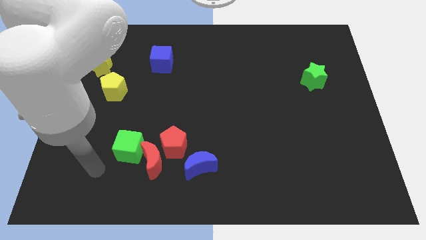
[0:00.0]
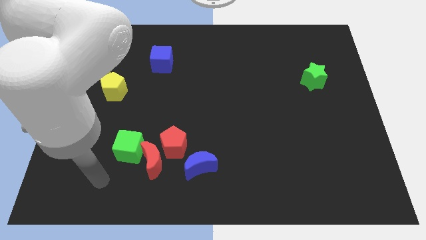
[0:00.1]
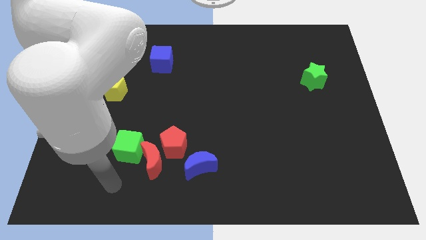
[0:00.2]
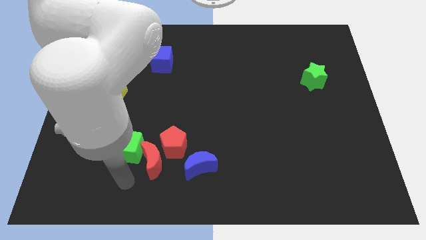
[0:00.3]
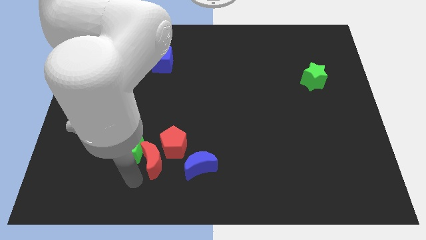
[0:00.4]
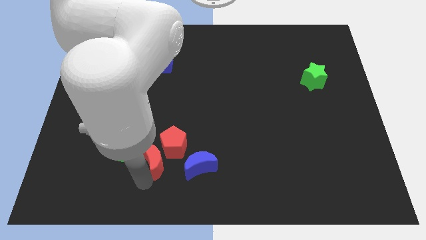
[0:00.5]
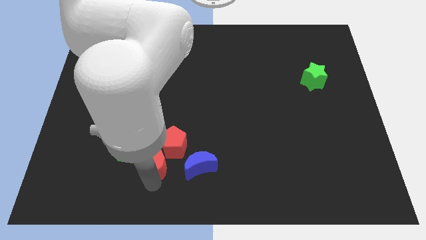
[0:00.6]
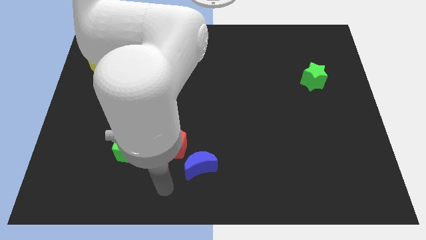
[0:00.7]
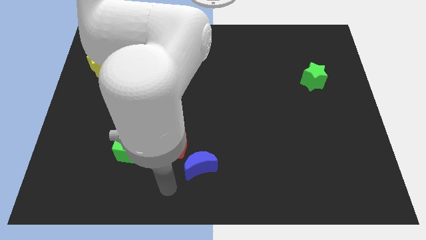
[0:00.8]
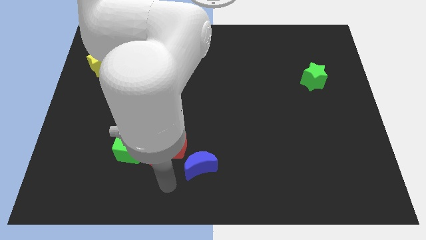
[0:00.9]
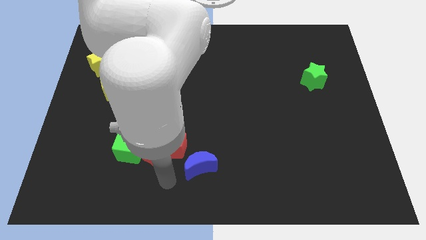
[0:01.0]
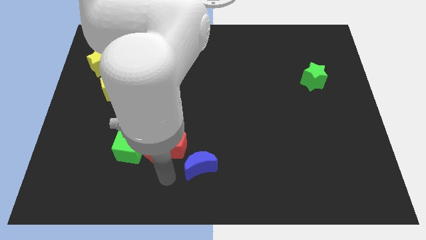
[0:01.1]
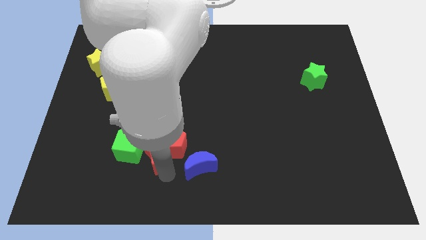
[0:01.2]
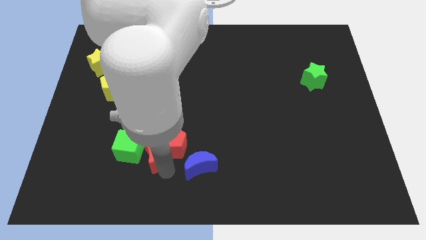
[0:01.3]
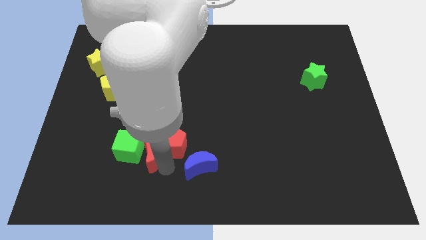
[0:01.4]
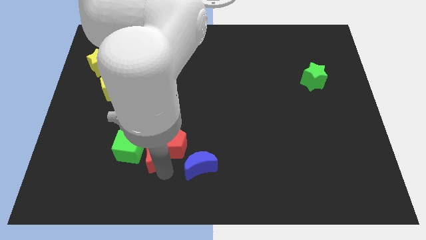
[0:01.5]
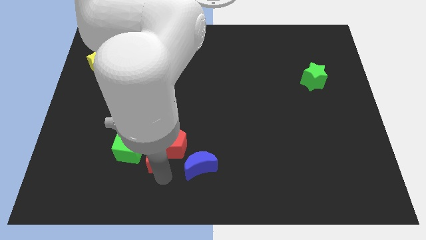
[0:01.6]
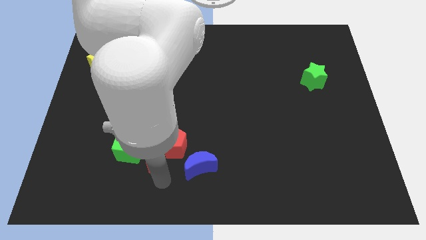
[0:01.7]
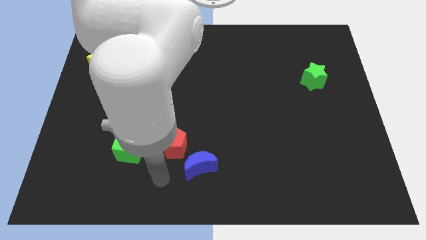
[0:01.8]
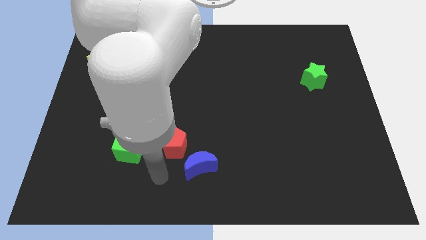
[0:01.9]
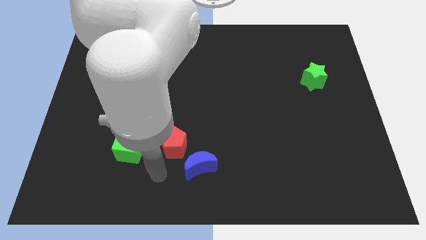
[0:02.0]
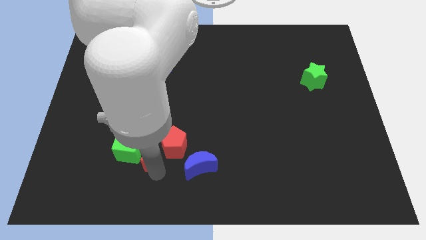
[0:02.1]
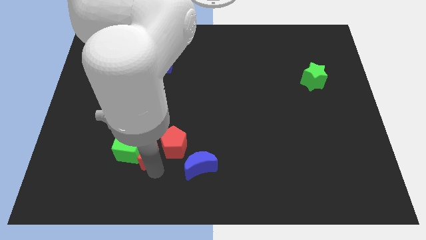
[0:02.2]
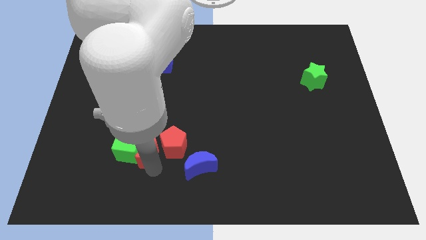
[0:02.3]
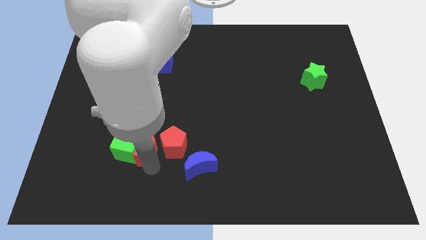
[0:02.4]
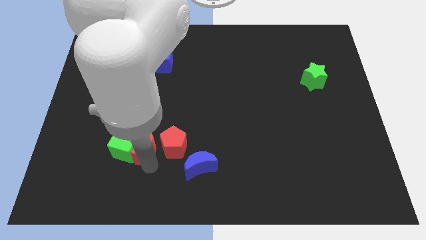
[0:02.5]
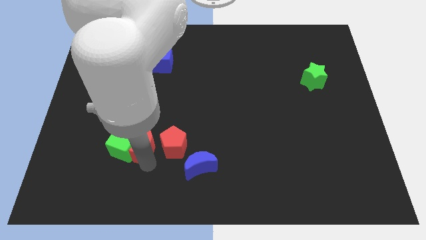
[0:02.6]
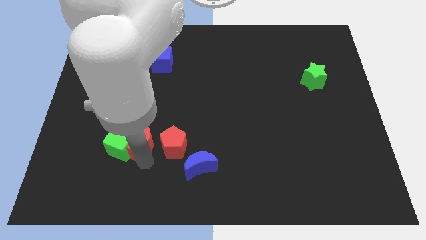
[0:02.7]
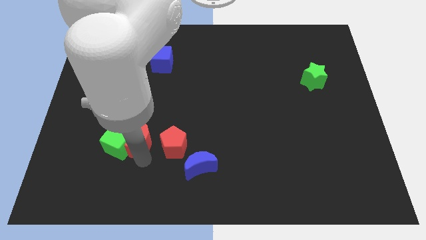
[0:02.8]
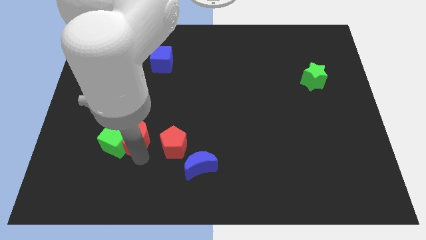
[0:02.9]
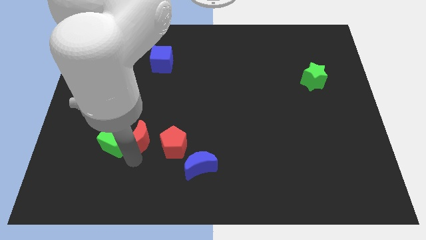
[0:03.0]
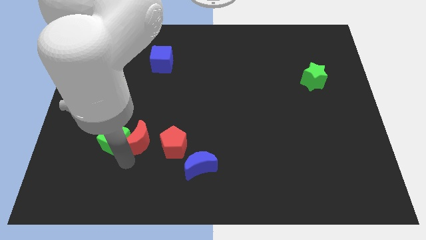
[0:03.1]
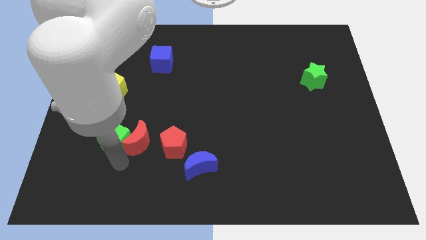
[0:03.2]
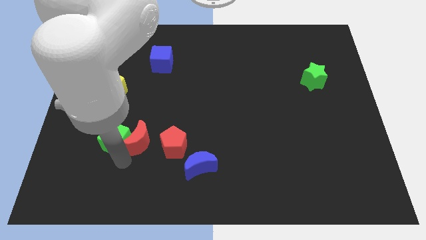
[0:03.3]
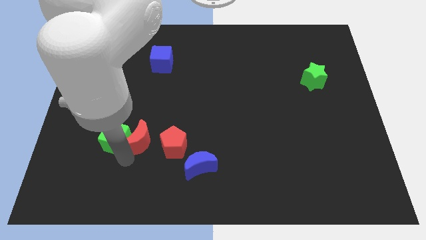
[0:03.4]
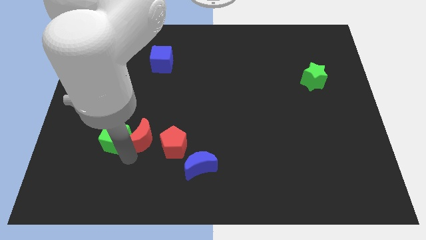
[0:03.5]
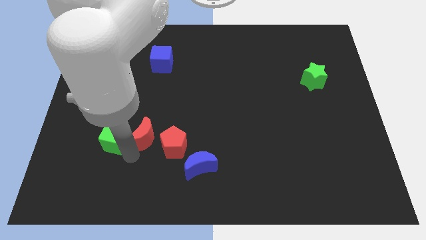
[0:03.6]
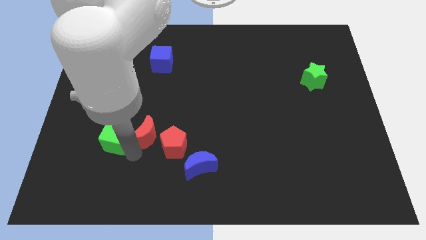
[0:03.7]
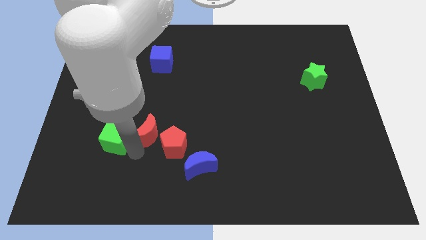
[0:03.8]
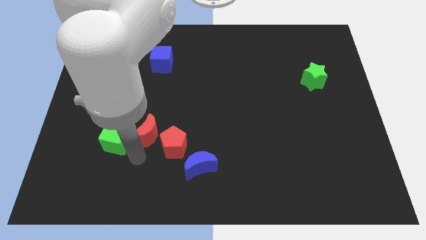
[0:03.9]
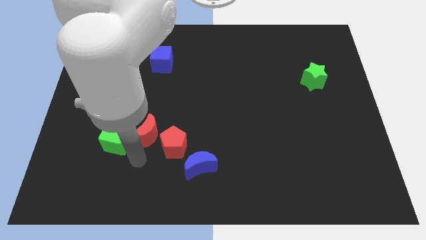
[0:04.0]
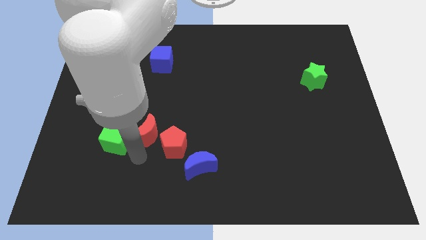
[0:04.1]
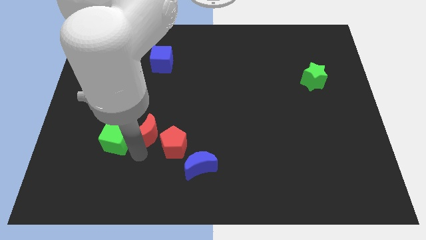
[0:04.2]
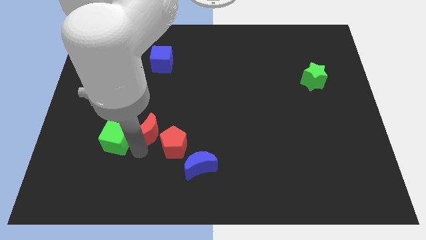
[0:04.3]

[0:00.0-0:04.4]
move the red moon upwards a little

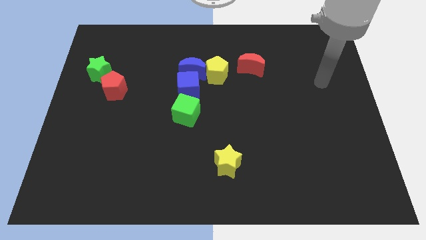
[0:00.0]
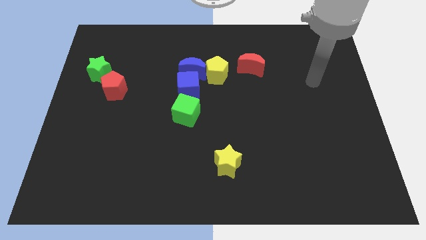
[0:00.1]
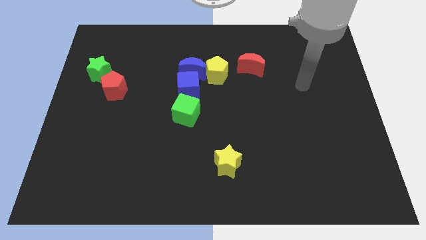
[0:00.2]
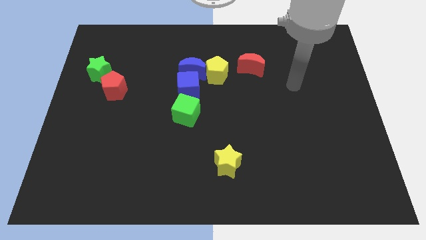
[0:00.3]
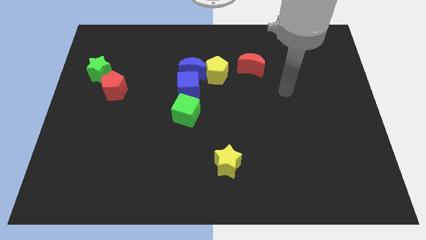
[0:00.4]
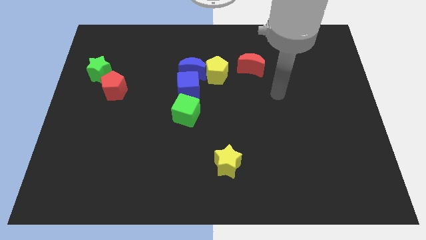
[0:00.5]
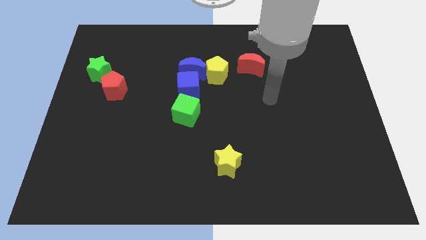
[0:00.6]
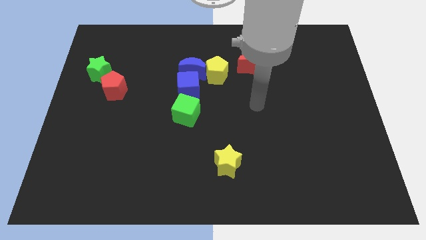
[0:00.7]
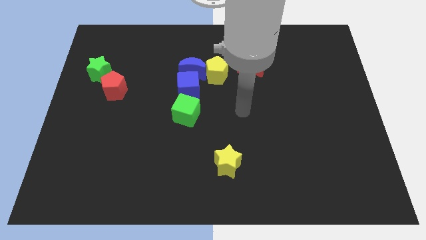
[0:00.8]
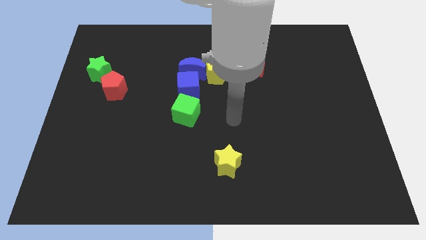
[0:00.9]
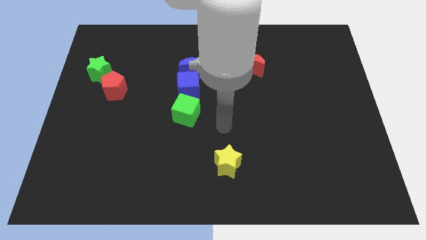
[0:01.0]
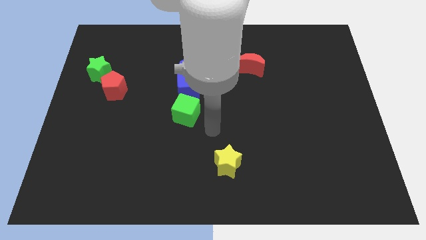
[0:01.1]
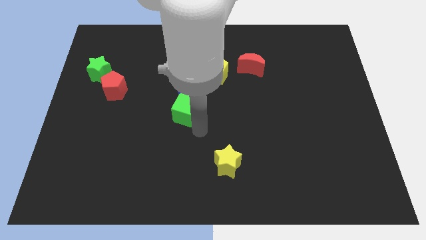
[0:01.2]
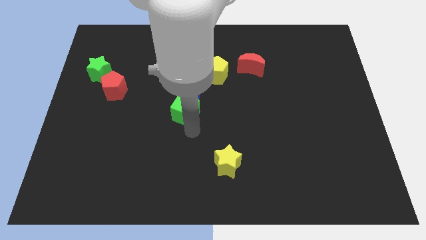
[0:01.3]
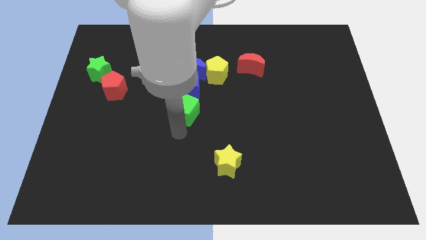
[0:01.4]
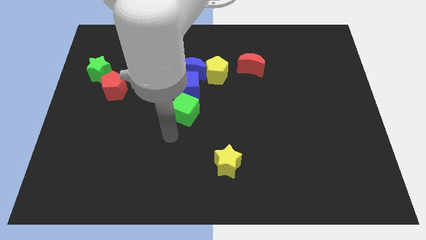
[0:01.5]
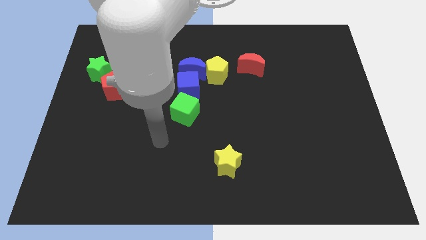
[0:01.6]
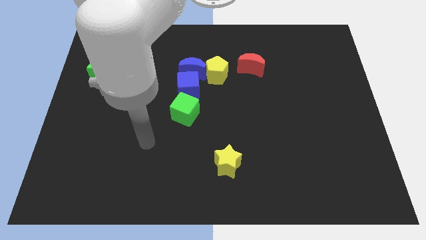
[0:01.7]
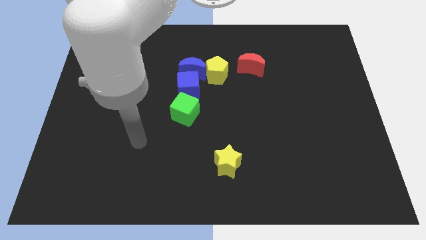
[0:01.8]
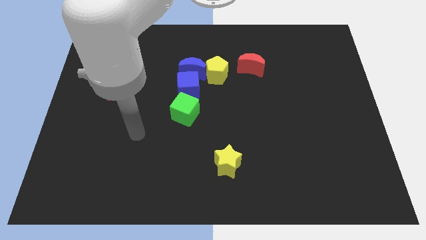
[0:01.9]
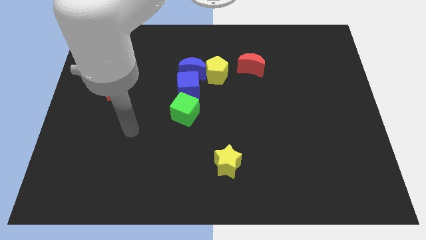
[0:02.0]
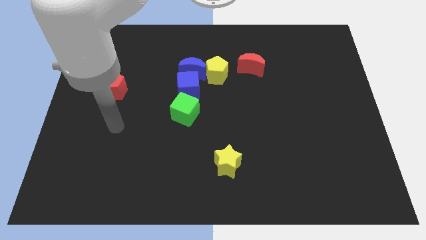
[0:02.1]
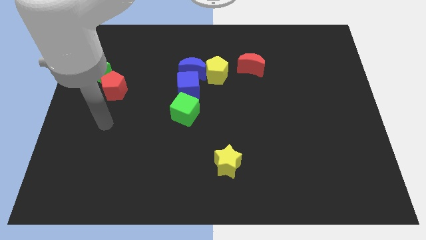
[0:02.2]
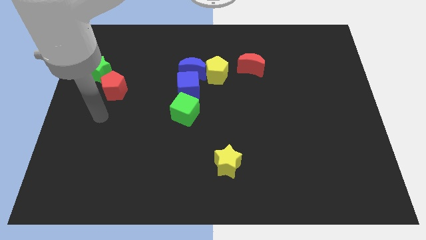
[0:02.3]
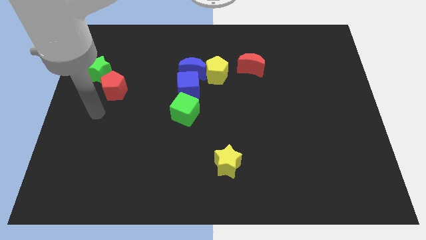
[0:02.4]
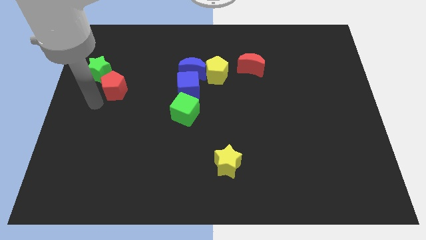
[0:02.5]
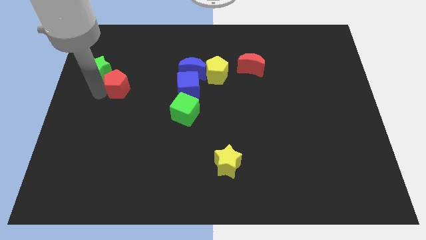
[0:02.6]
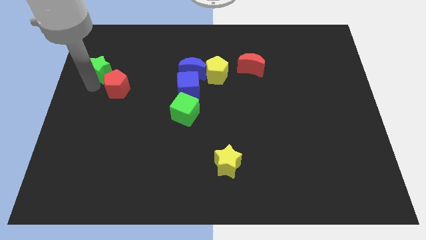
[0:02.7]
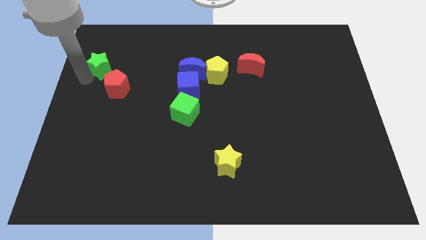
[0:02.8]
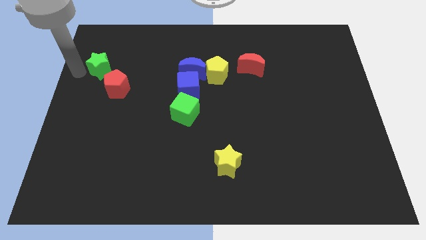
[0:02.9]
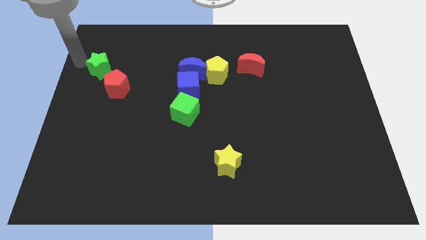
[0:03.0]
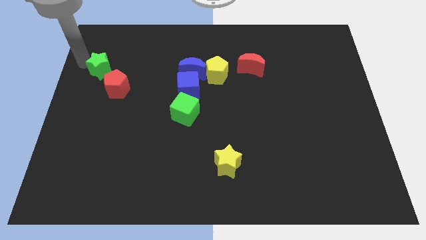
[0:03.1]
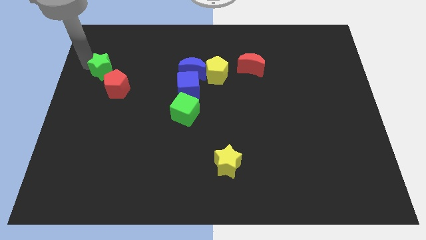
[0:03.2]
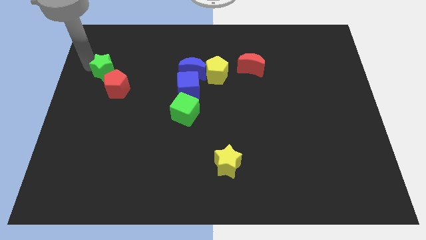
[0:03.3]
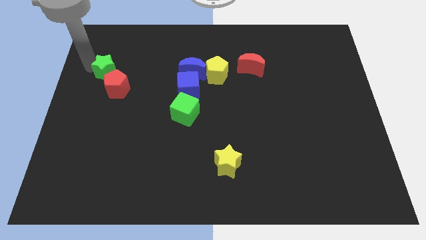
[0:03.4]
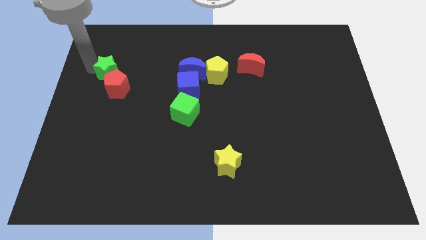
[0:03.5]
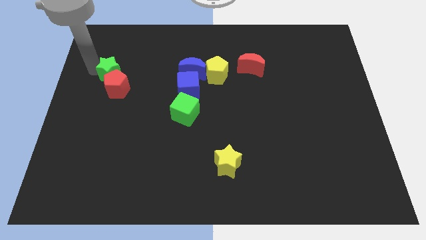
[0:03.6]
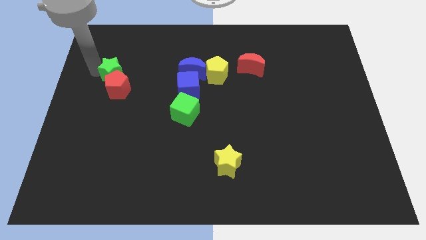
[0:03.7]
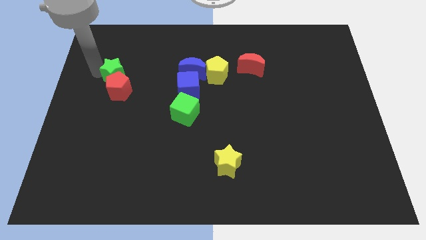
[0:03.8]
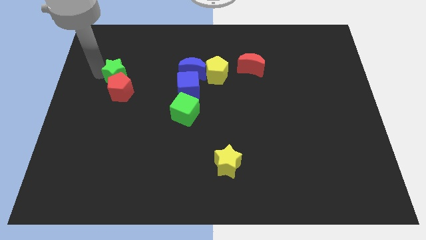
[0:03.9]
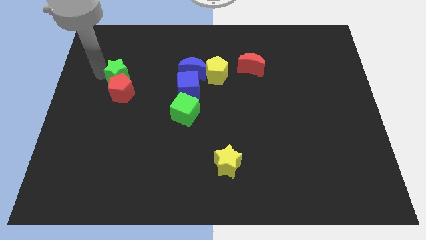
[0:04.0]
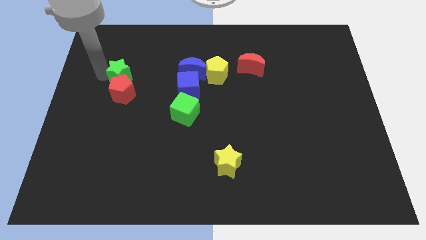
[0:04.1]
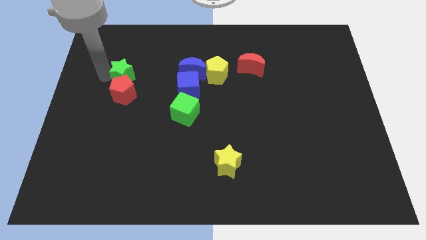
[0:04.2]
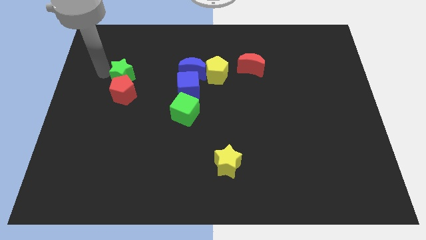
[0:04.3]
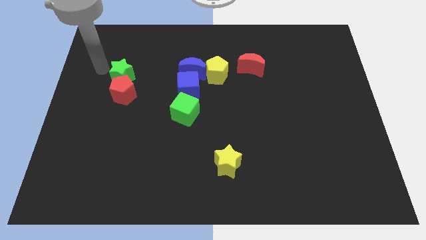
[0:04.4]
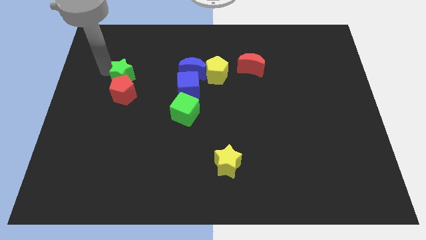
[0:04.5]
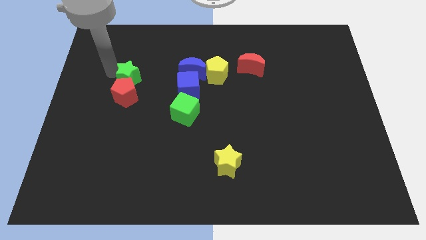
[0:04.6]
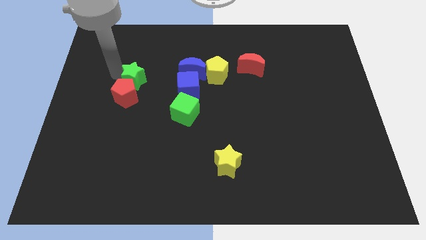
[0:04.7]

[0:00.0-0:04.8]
slightly push the green star diagonally downwards and right
